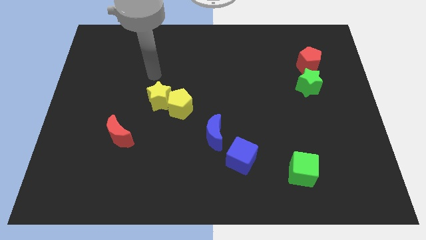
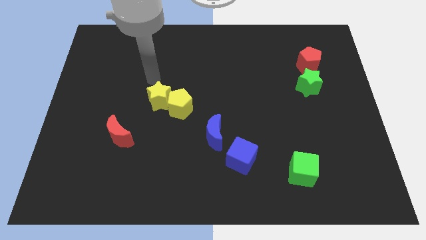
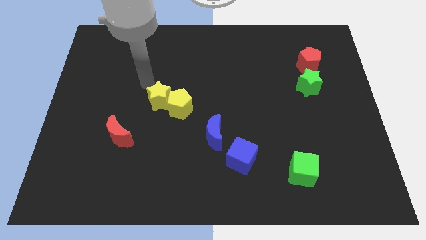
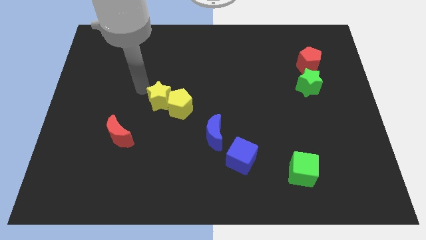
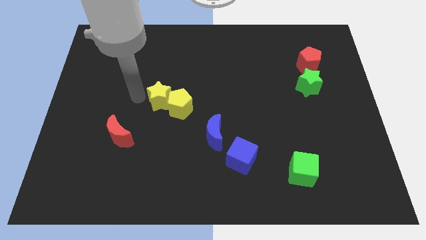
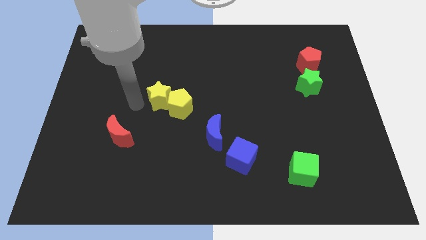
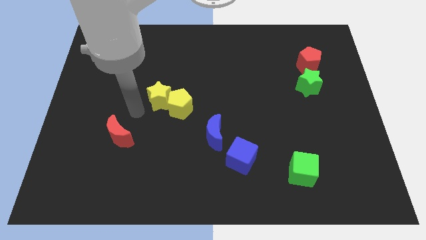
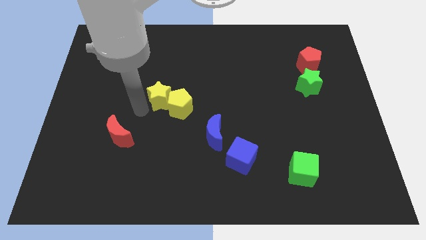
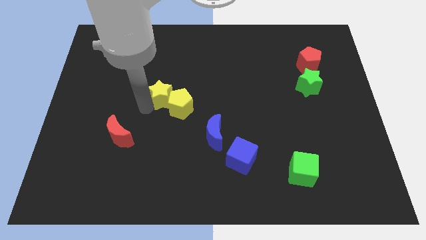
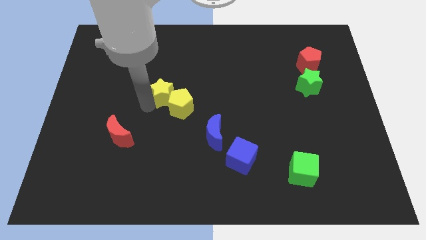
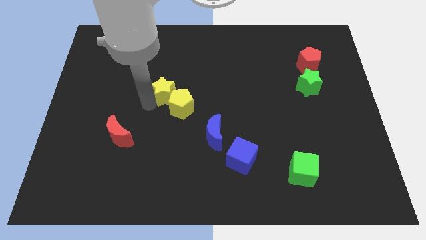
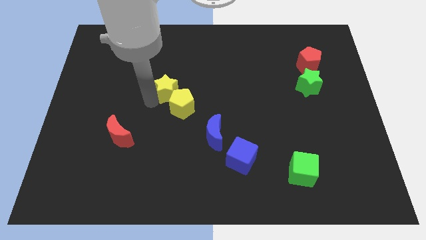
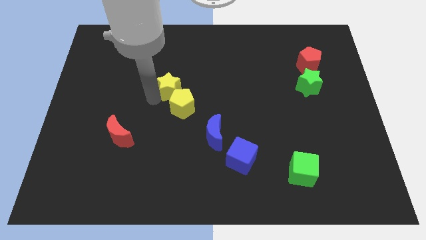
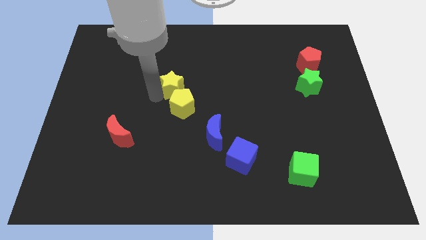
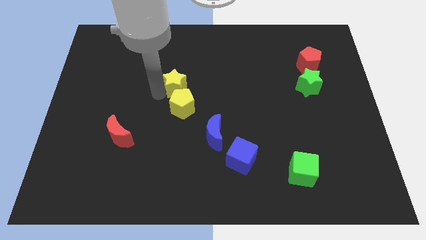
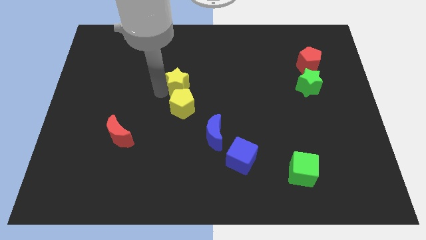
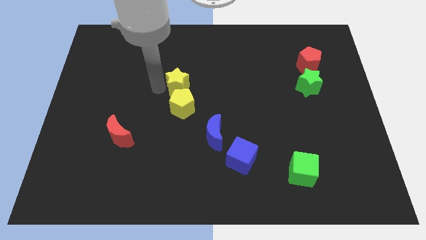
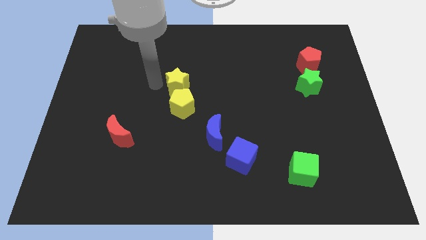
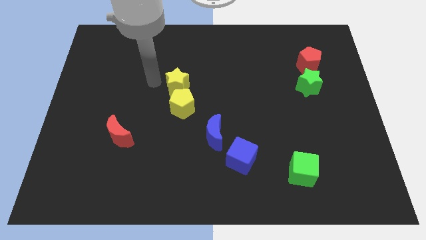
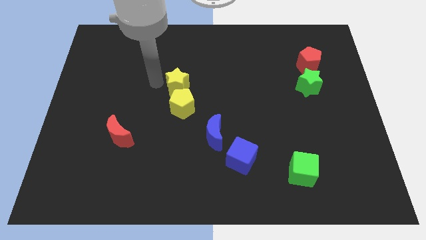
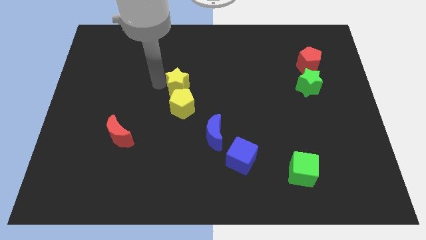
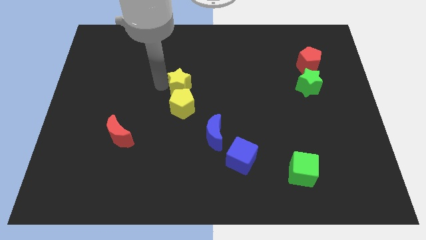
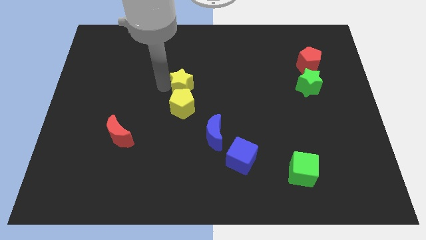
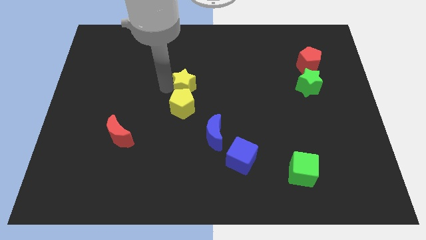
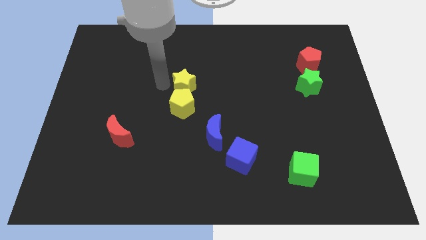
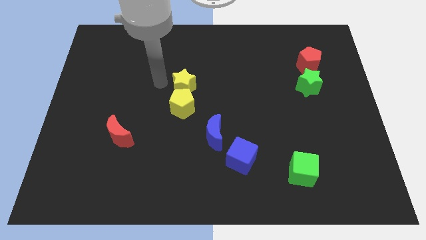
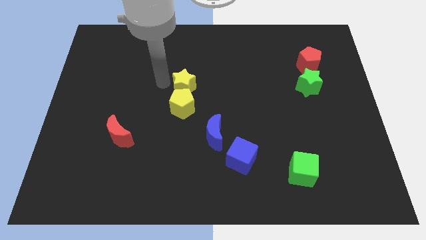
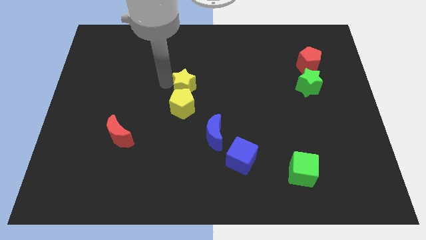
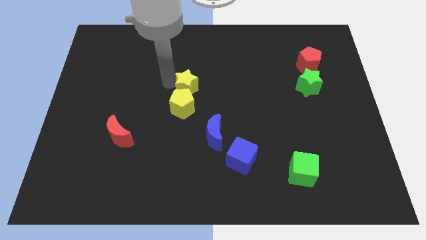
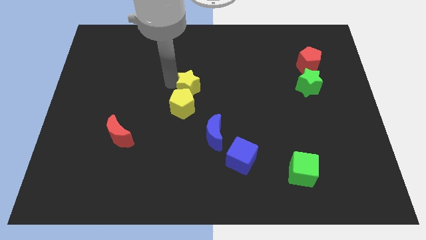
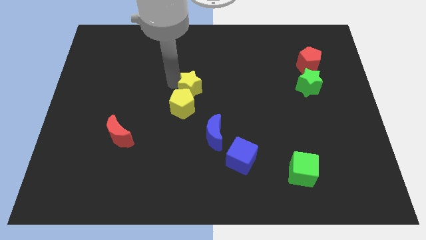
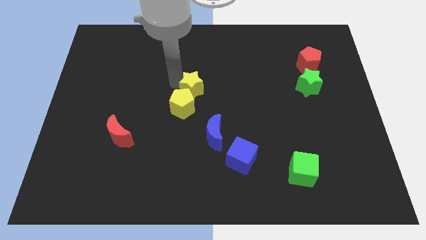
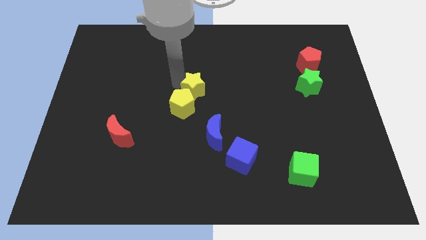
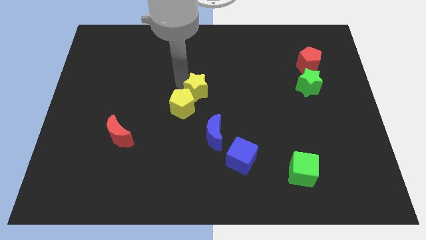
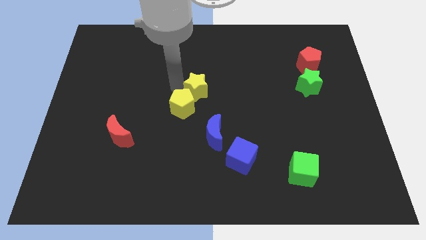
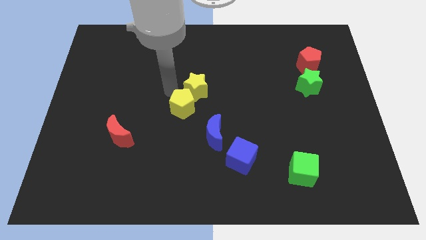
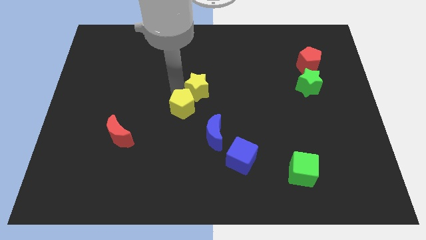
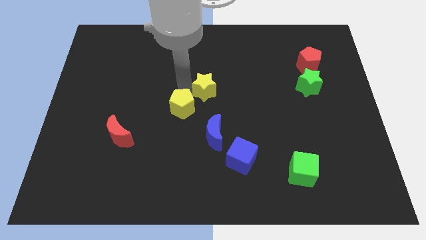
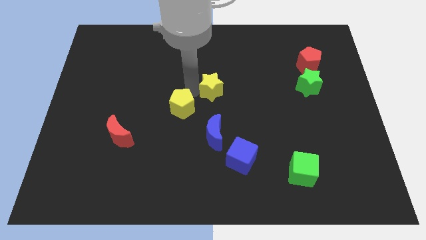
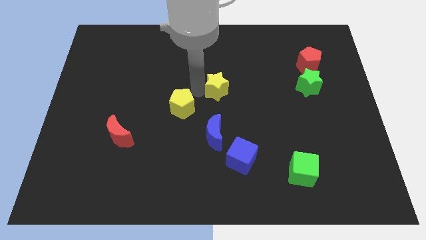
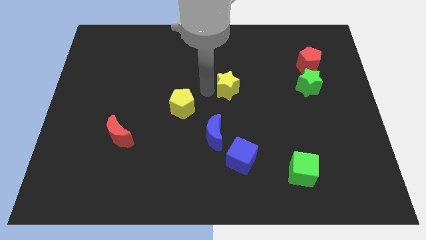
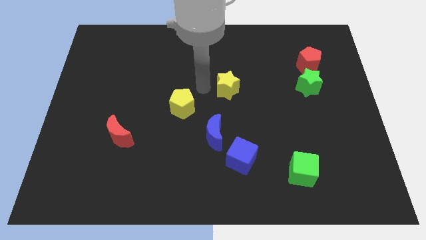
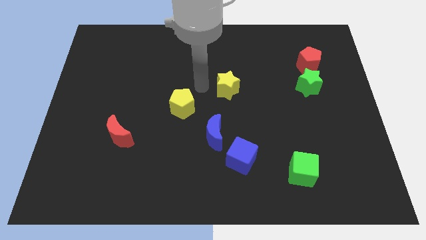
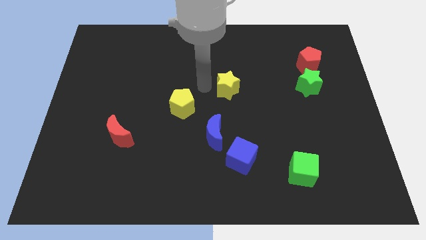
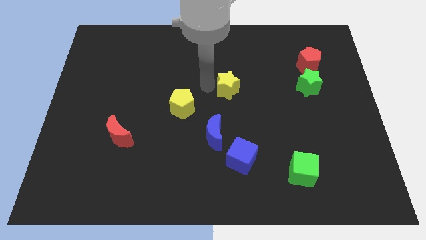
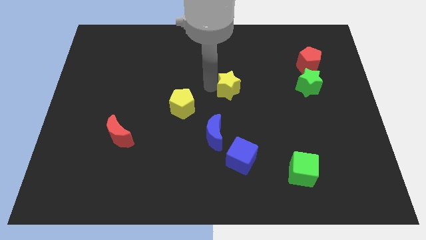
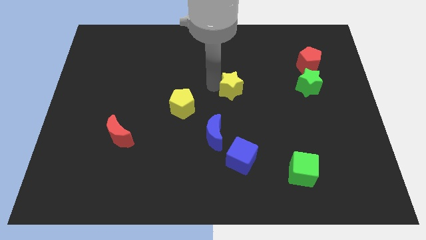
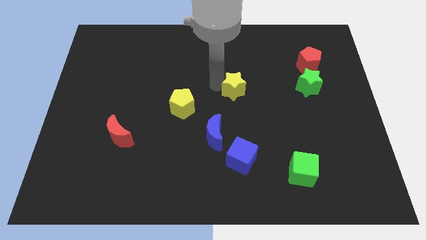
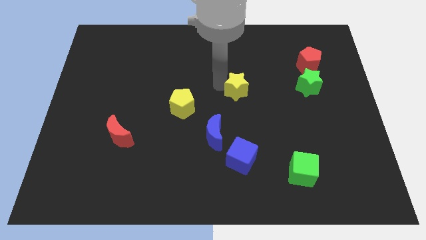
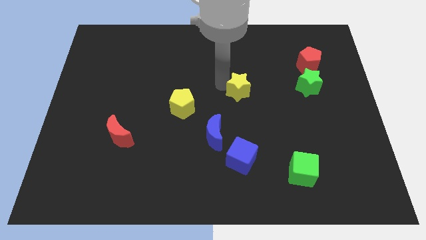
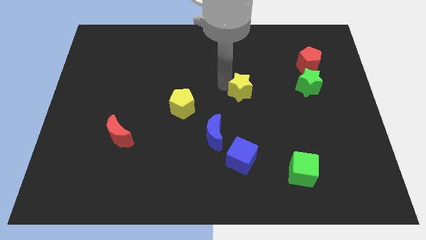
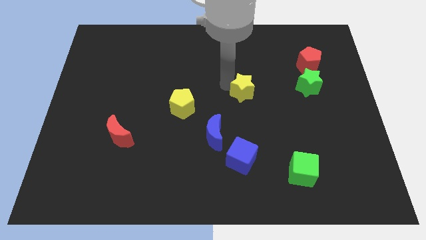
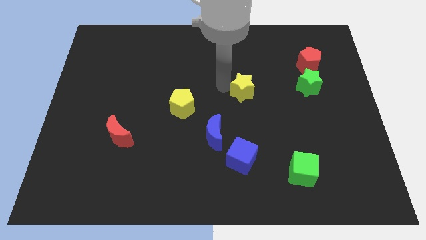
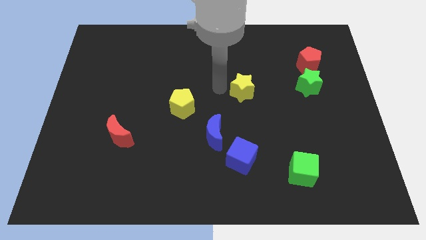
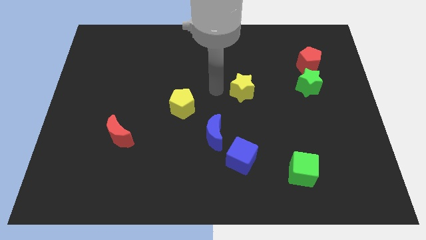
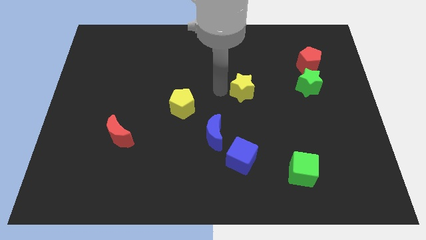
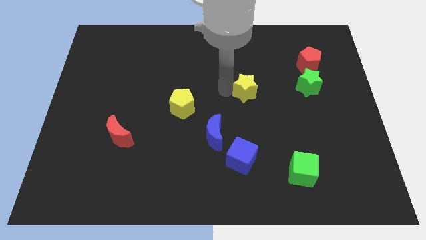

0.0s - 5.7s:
push the yellow star right

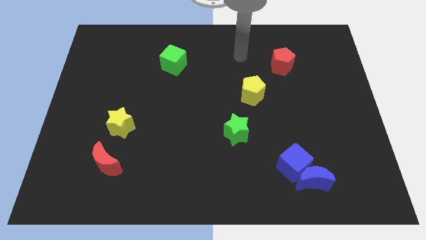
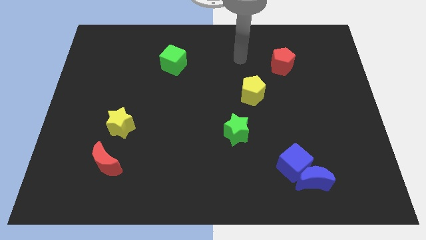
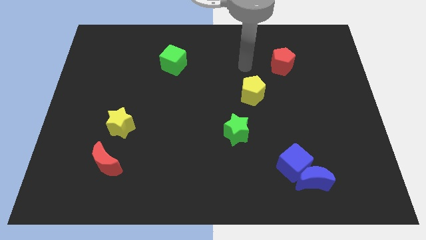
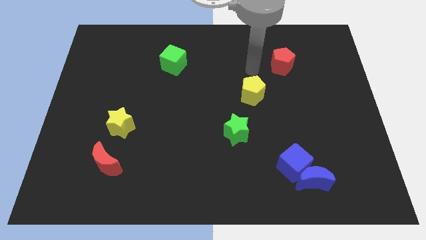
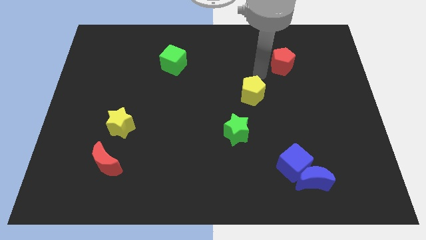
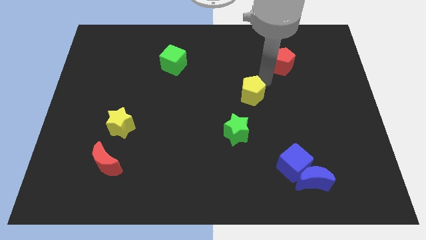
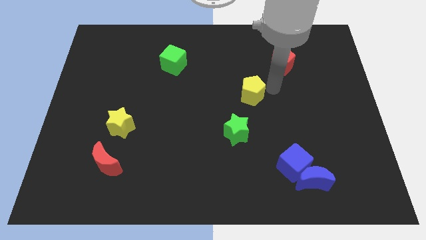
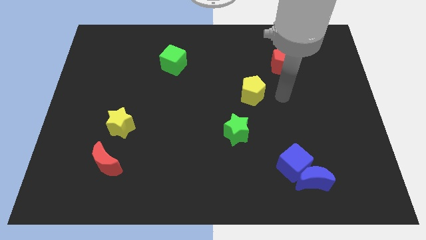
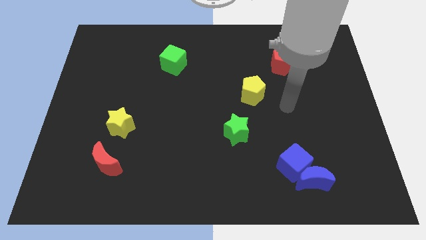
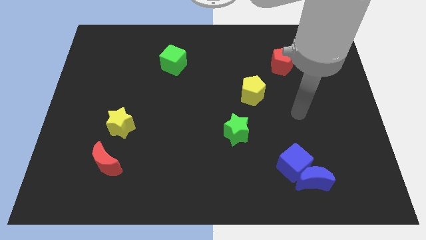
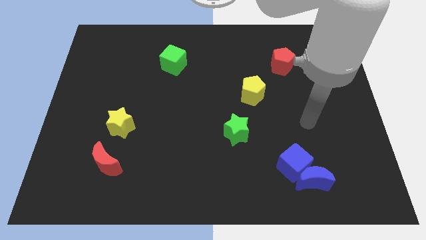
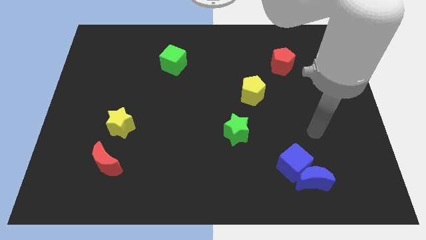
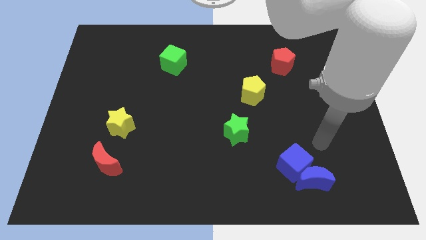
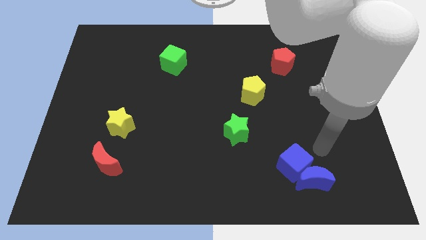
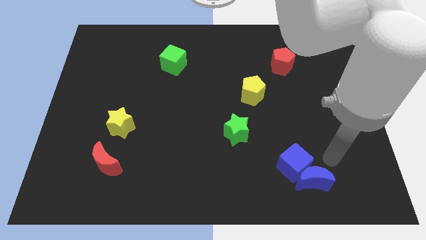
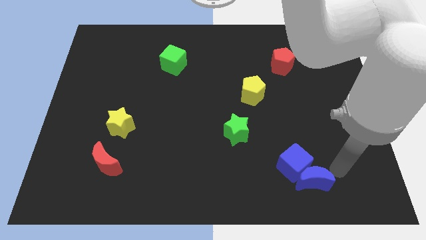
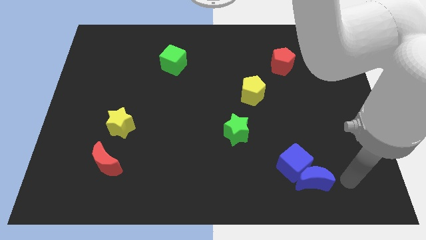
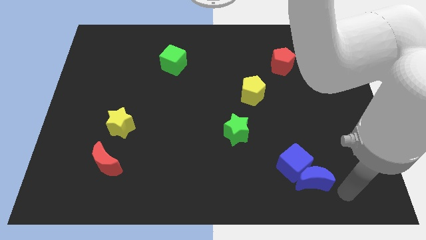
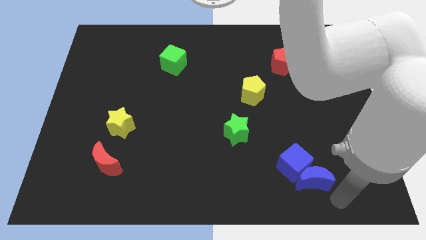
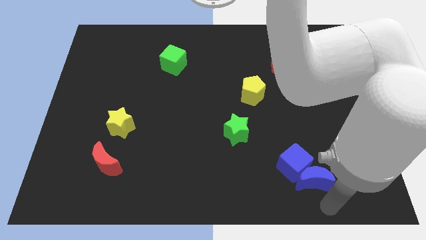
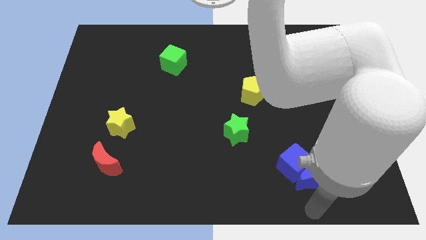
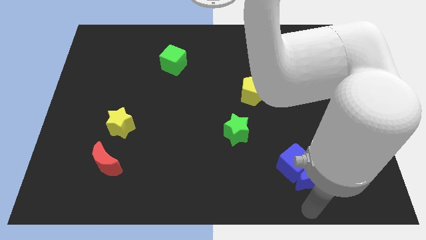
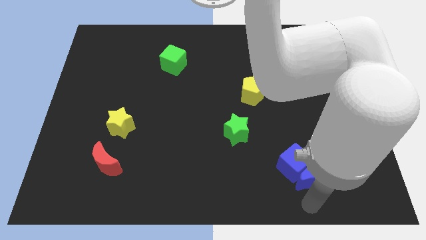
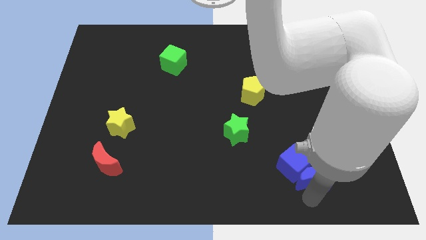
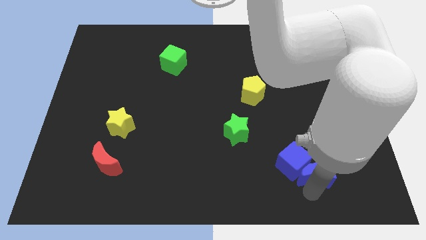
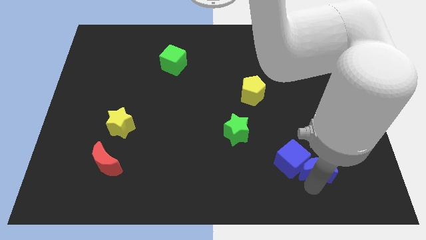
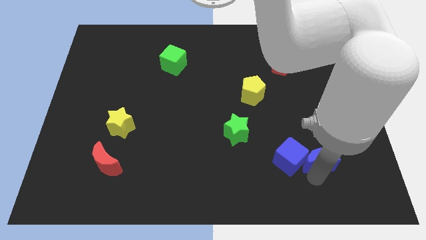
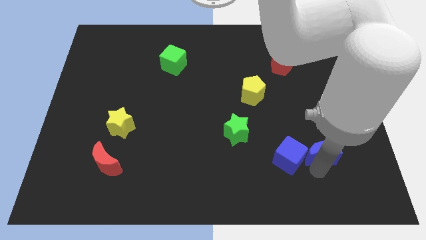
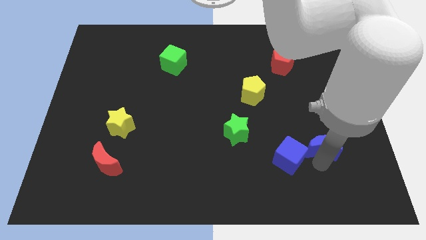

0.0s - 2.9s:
slide the blue moon upwards a little
